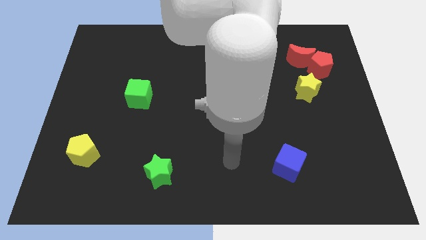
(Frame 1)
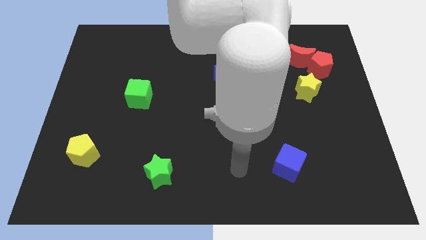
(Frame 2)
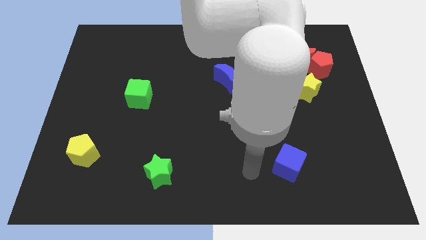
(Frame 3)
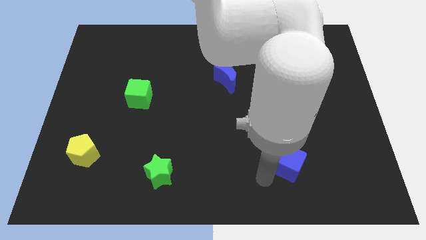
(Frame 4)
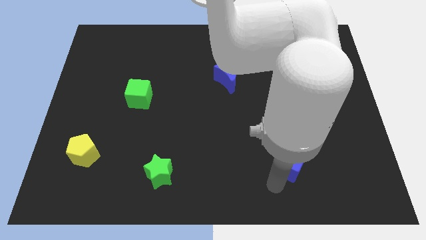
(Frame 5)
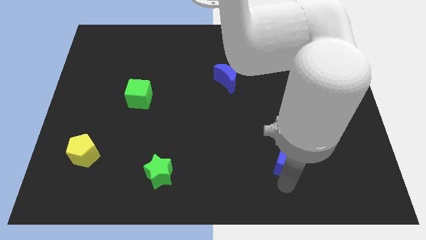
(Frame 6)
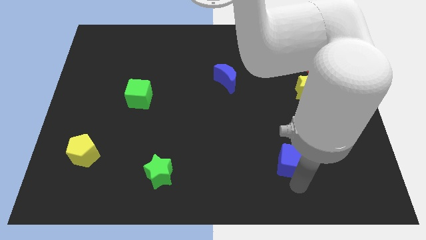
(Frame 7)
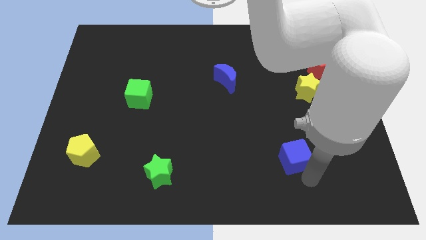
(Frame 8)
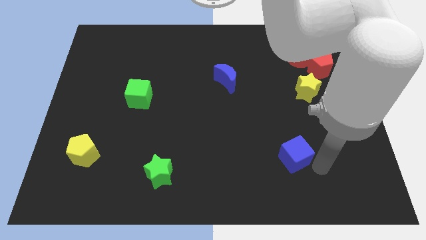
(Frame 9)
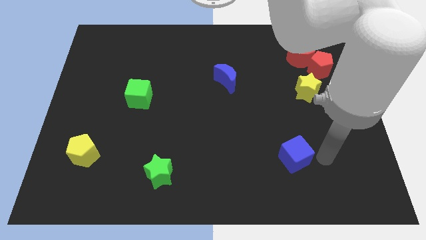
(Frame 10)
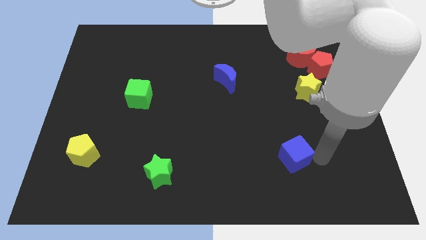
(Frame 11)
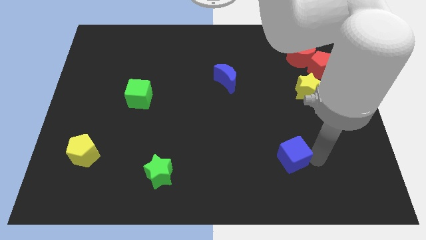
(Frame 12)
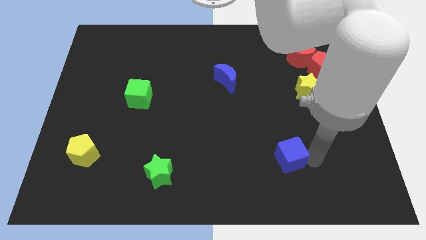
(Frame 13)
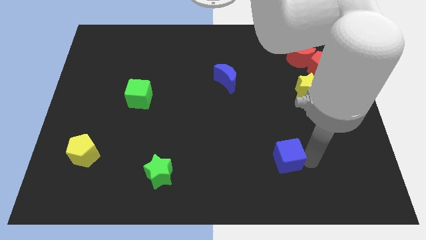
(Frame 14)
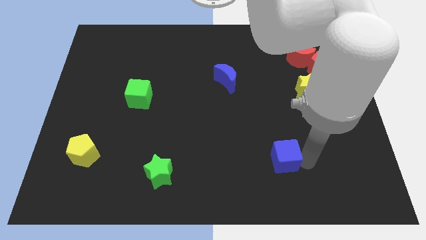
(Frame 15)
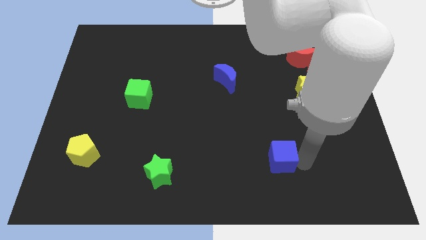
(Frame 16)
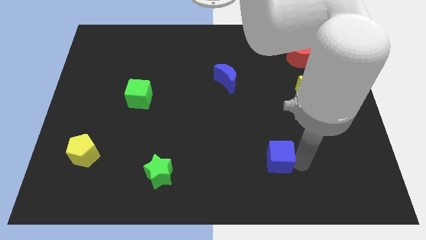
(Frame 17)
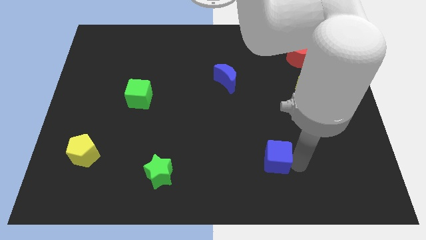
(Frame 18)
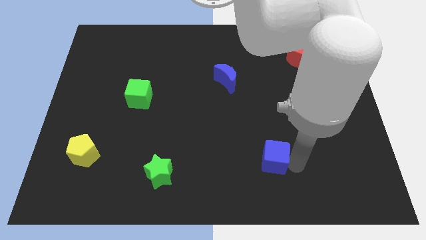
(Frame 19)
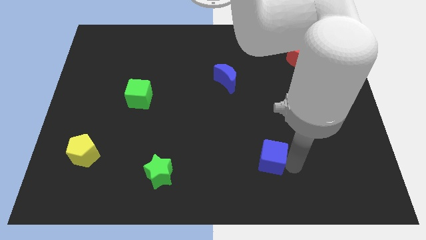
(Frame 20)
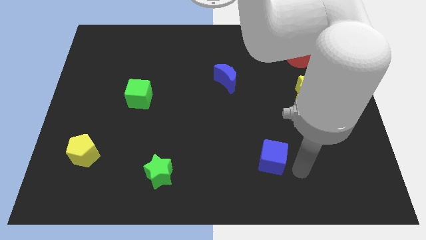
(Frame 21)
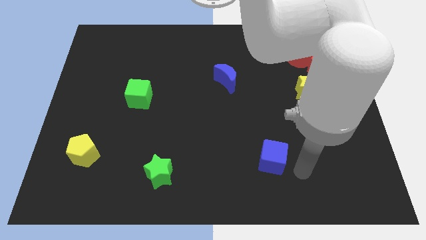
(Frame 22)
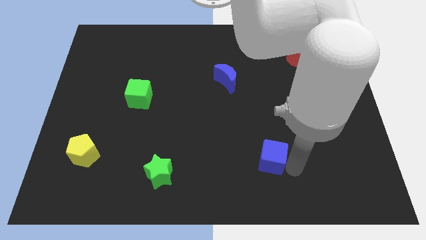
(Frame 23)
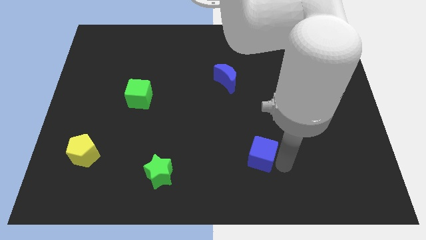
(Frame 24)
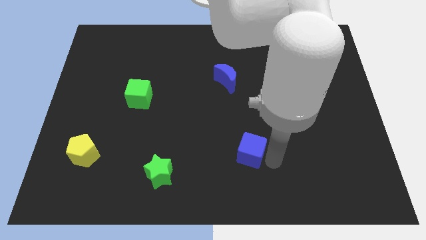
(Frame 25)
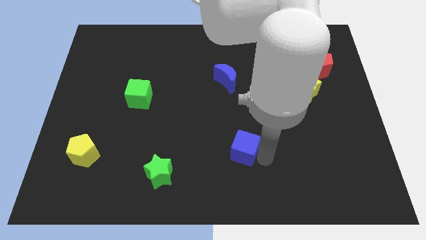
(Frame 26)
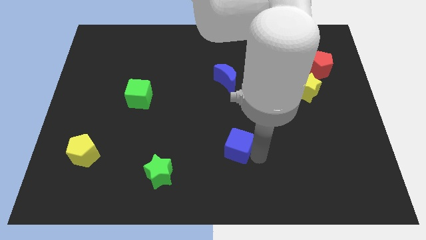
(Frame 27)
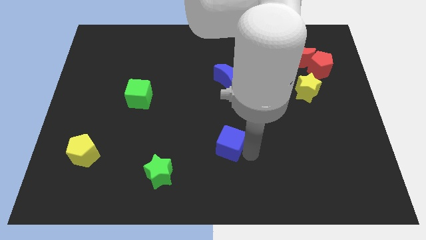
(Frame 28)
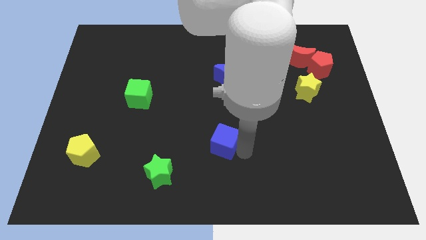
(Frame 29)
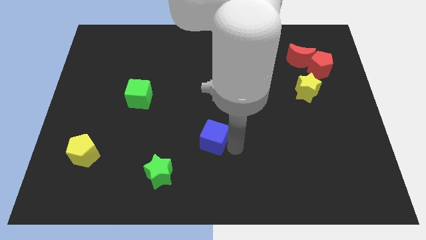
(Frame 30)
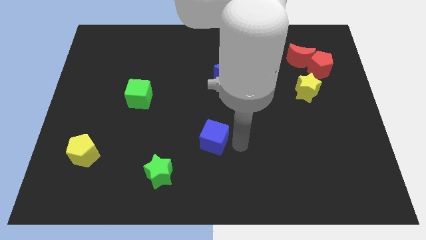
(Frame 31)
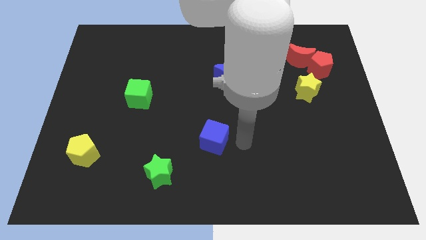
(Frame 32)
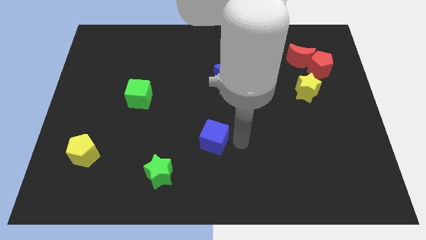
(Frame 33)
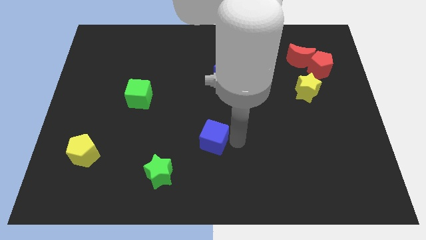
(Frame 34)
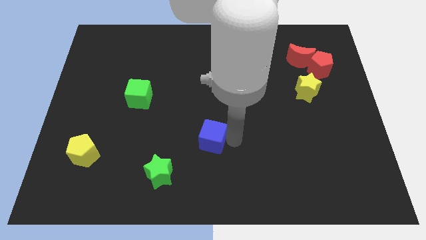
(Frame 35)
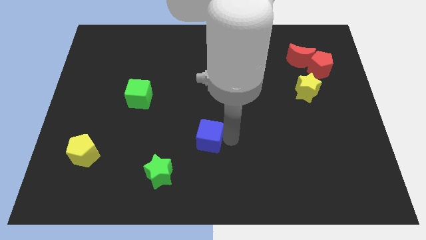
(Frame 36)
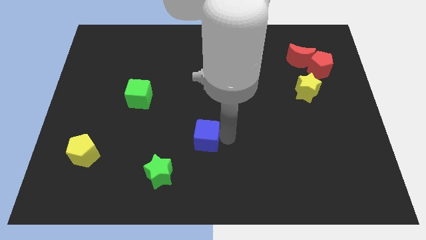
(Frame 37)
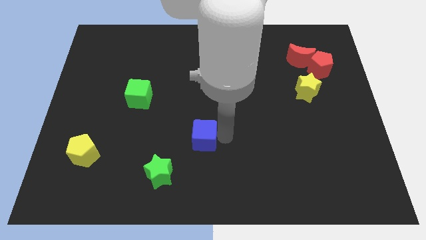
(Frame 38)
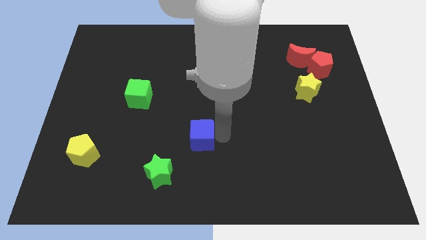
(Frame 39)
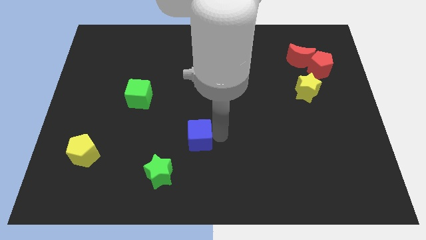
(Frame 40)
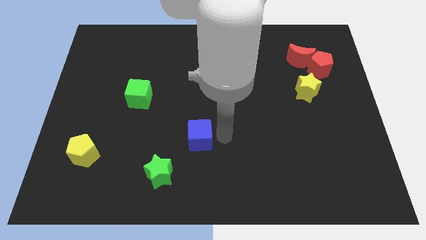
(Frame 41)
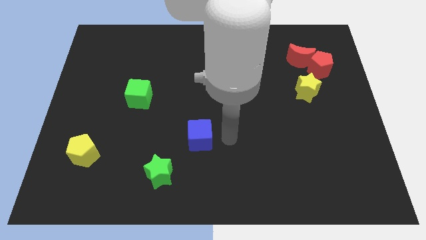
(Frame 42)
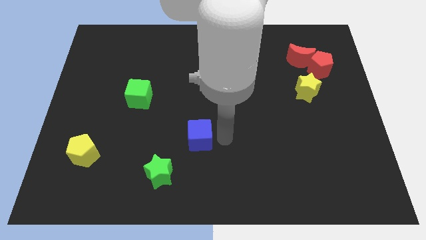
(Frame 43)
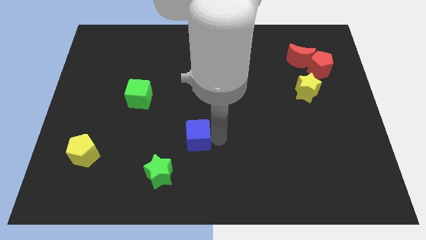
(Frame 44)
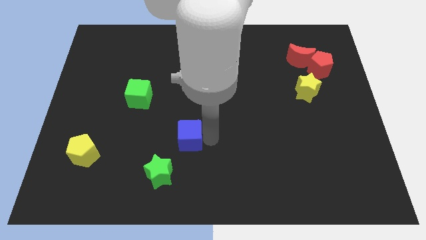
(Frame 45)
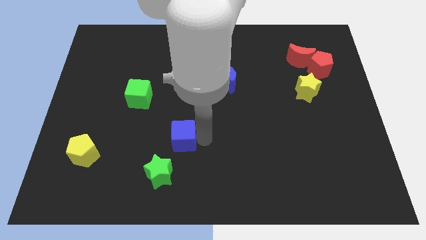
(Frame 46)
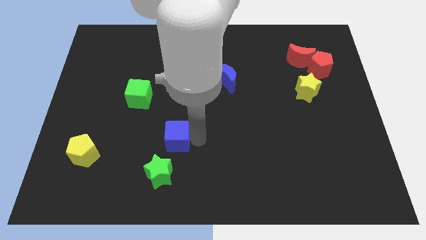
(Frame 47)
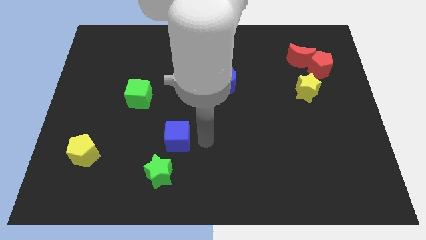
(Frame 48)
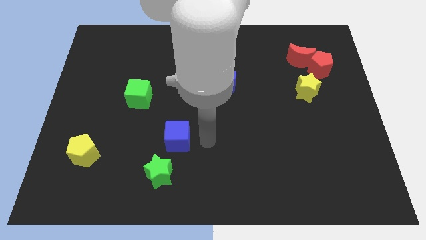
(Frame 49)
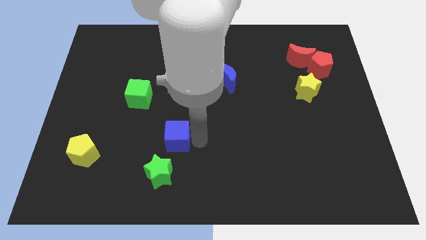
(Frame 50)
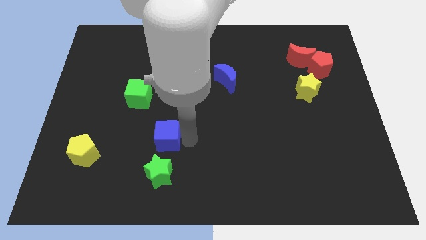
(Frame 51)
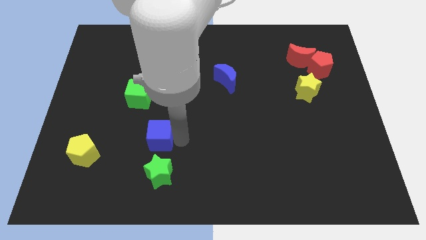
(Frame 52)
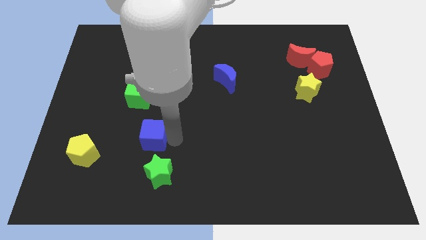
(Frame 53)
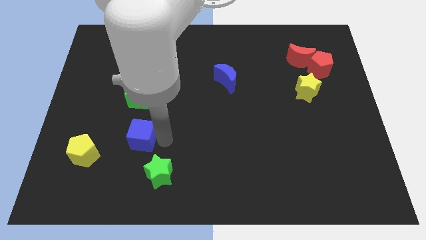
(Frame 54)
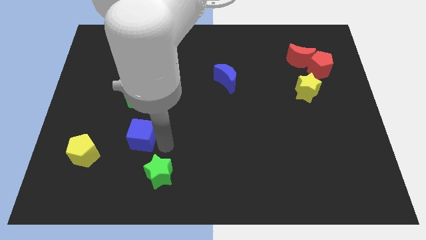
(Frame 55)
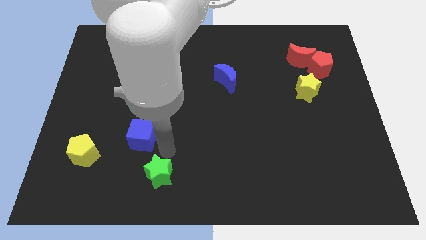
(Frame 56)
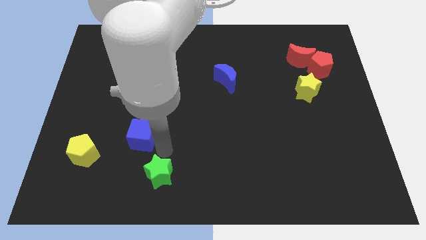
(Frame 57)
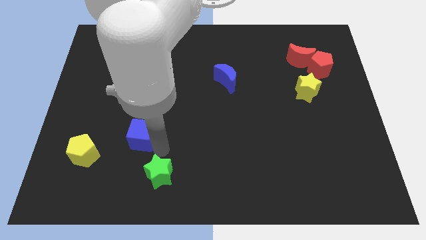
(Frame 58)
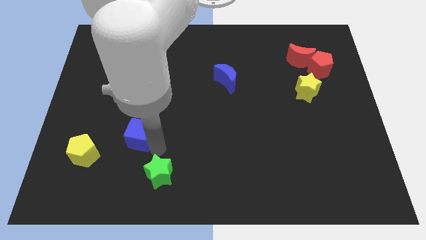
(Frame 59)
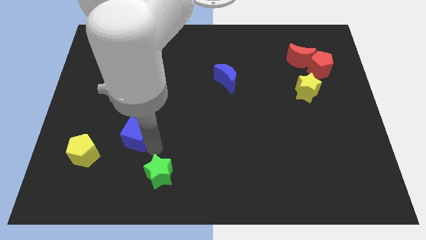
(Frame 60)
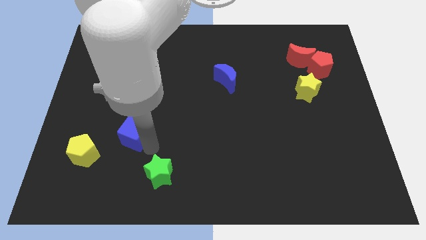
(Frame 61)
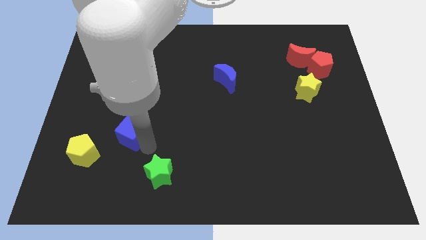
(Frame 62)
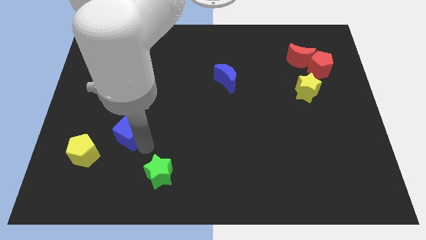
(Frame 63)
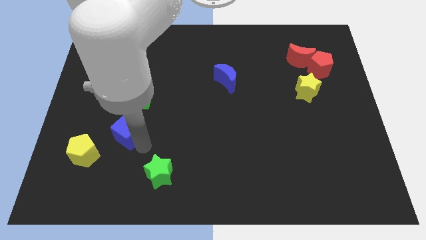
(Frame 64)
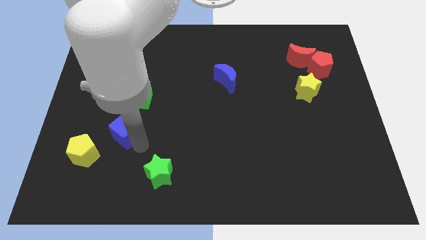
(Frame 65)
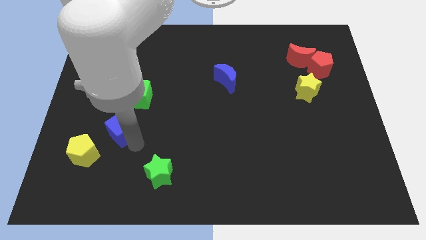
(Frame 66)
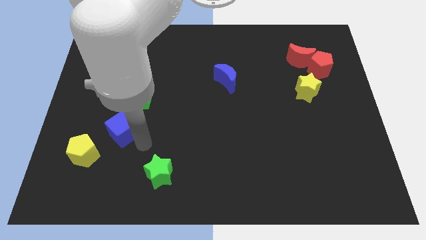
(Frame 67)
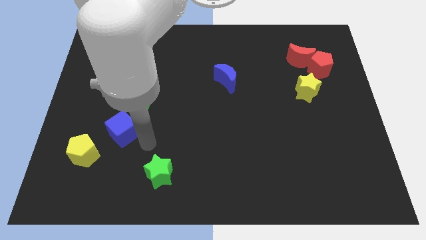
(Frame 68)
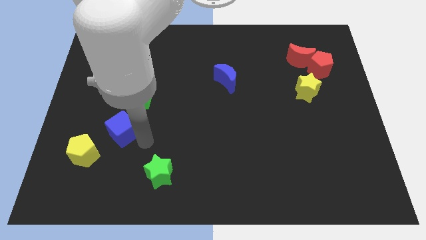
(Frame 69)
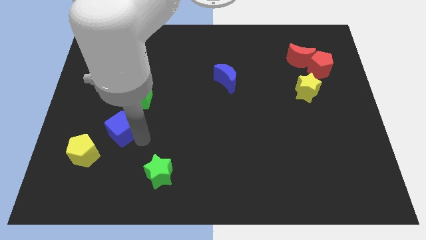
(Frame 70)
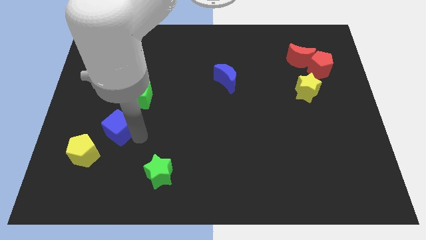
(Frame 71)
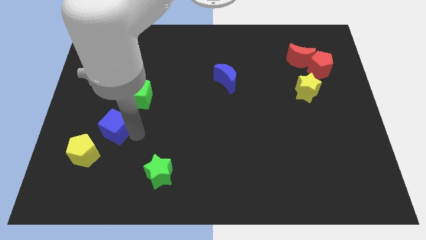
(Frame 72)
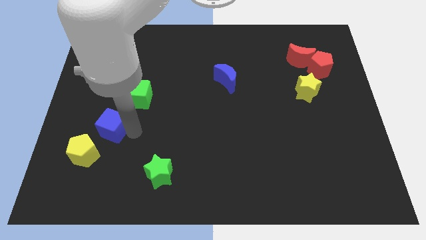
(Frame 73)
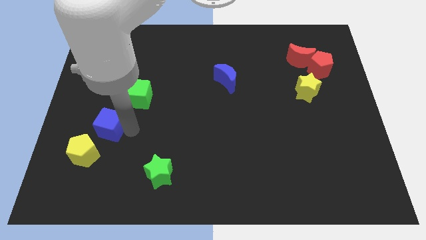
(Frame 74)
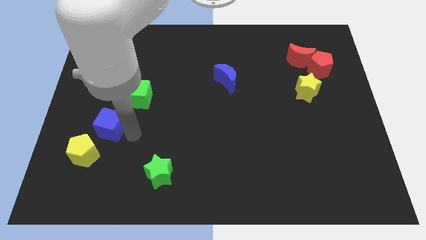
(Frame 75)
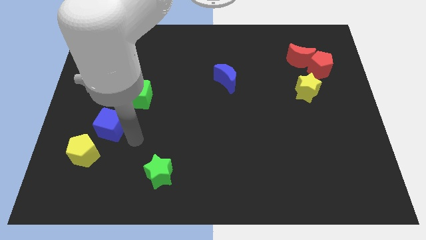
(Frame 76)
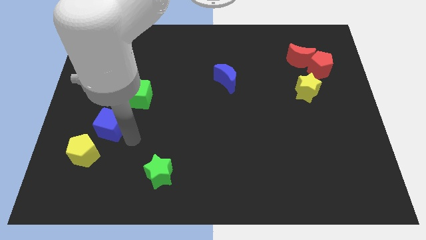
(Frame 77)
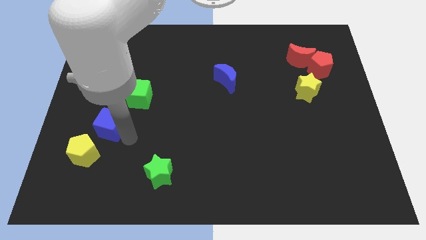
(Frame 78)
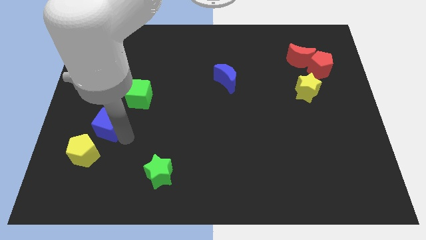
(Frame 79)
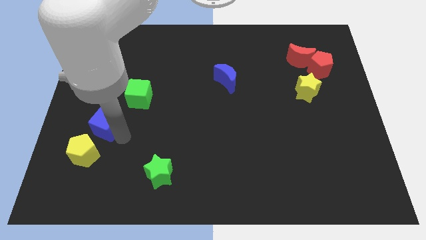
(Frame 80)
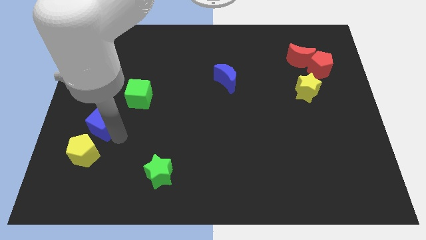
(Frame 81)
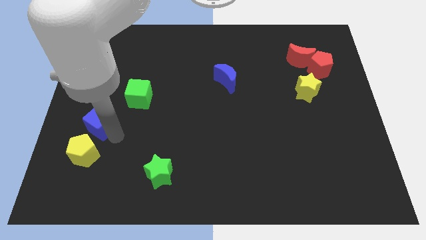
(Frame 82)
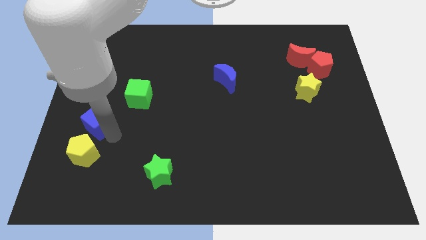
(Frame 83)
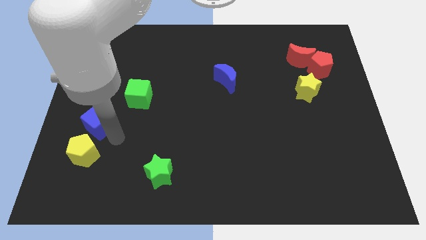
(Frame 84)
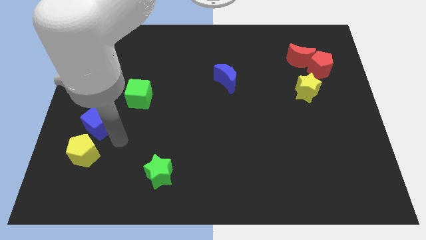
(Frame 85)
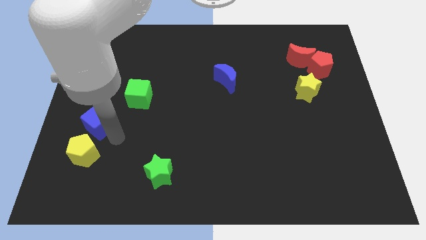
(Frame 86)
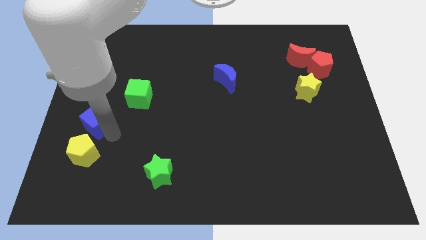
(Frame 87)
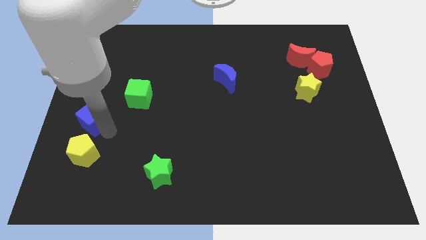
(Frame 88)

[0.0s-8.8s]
push the blue cube to the left side
